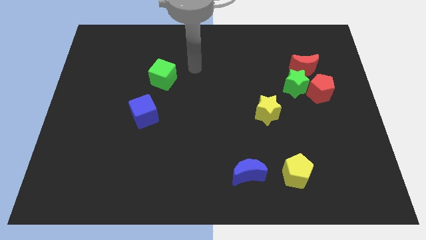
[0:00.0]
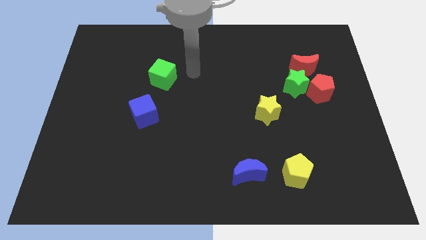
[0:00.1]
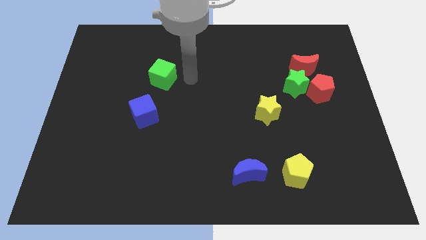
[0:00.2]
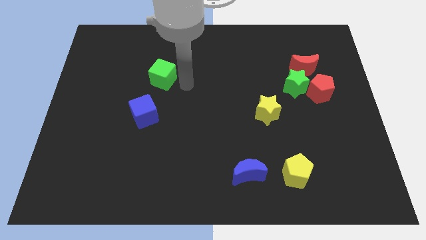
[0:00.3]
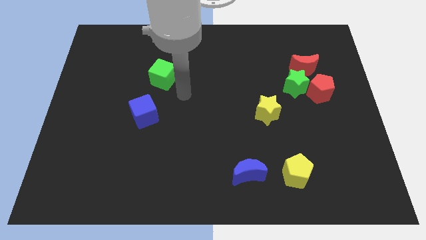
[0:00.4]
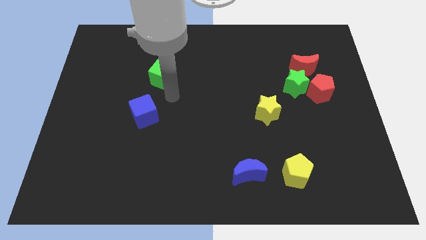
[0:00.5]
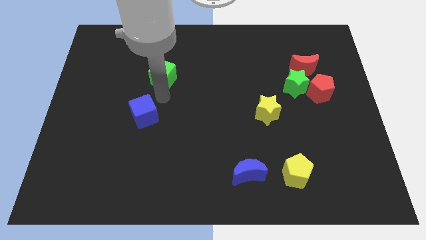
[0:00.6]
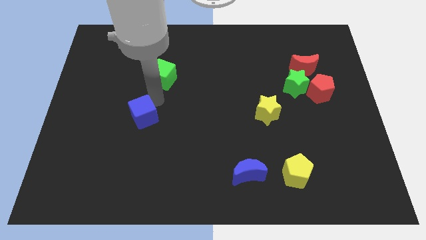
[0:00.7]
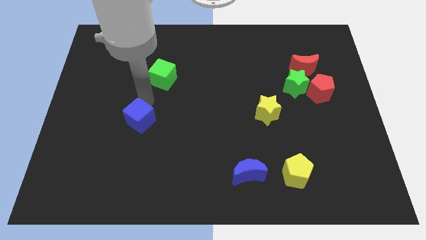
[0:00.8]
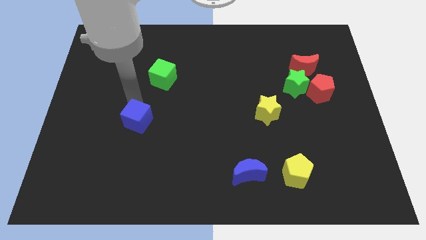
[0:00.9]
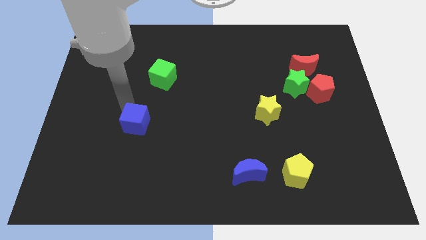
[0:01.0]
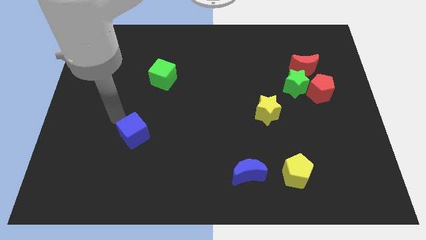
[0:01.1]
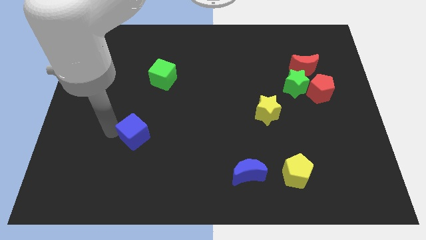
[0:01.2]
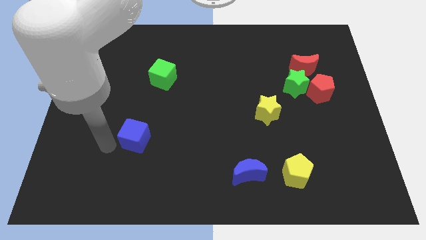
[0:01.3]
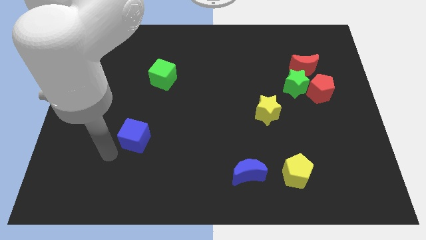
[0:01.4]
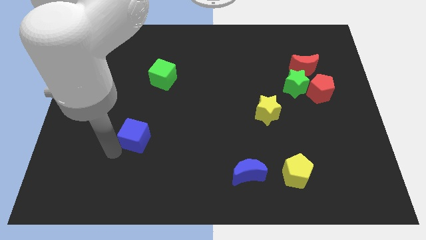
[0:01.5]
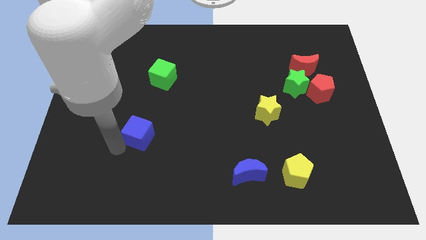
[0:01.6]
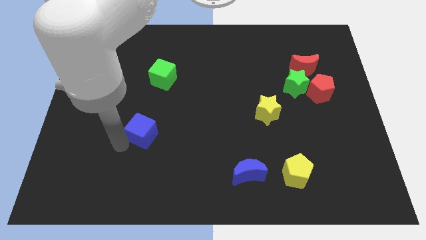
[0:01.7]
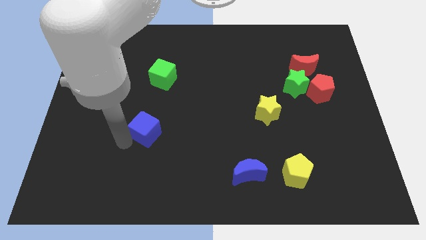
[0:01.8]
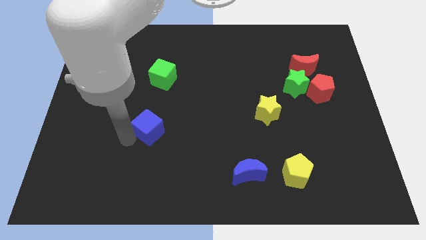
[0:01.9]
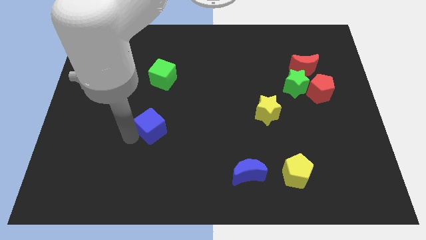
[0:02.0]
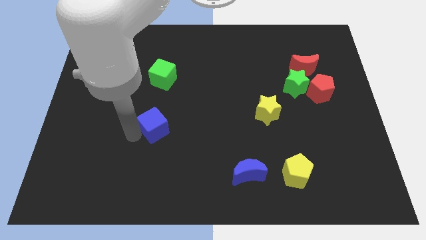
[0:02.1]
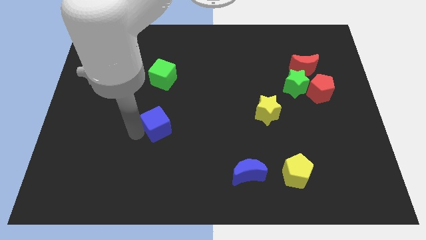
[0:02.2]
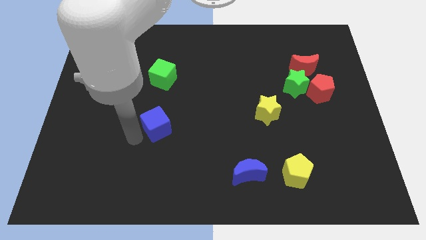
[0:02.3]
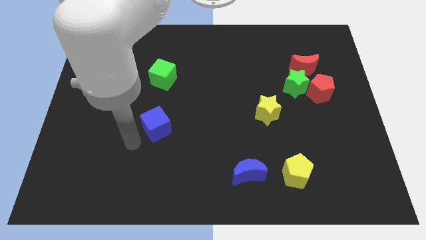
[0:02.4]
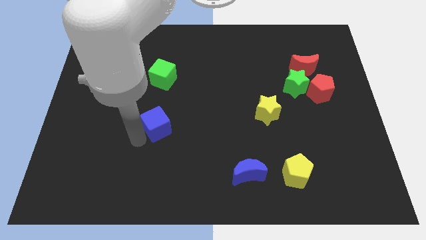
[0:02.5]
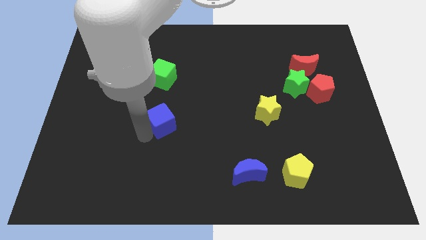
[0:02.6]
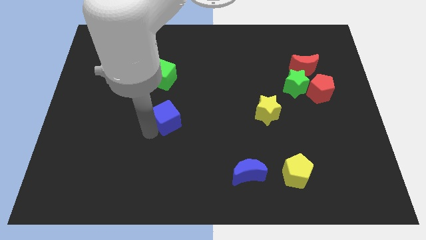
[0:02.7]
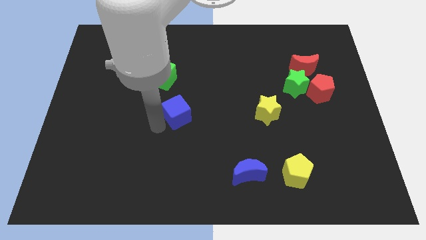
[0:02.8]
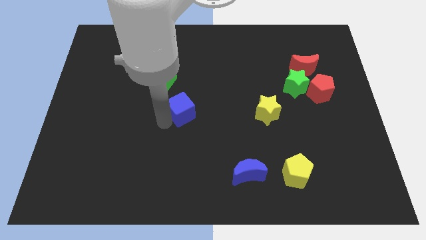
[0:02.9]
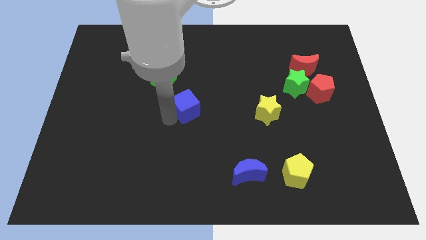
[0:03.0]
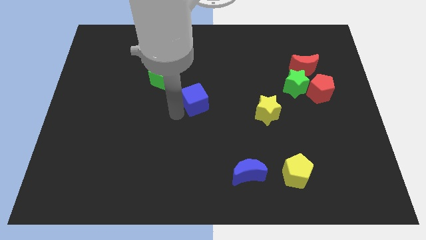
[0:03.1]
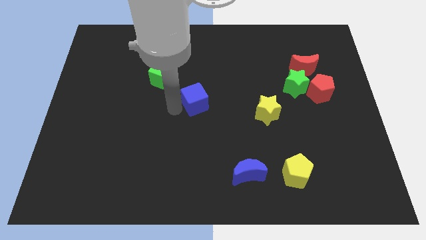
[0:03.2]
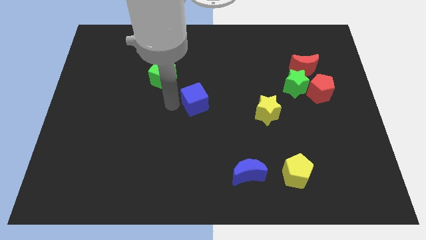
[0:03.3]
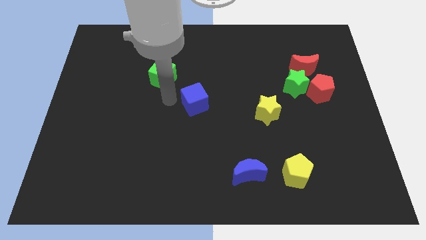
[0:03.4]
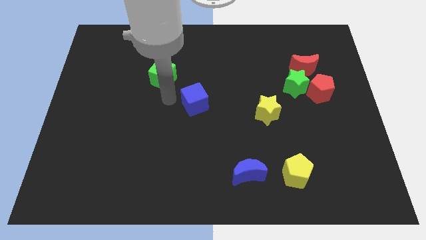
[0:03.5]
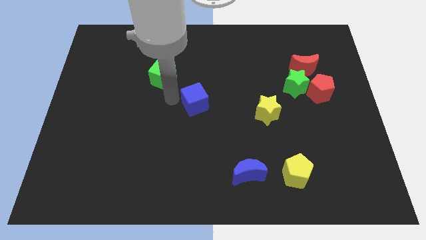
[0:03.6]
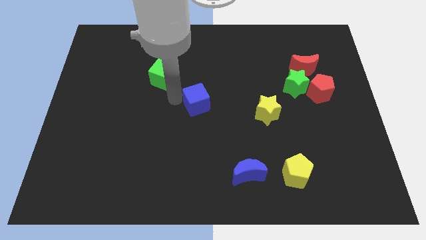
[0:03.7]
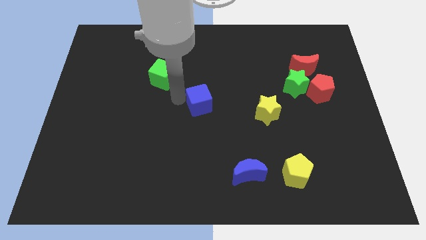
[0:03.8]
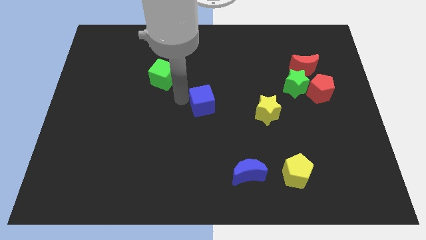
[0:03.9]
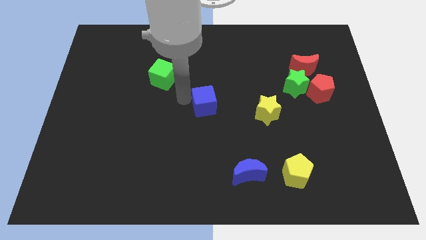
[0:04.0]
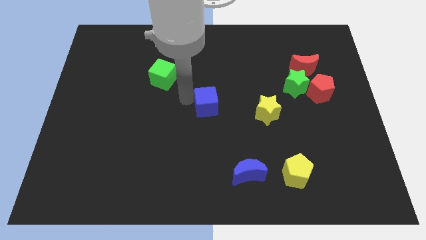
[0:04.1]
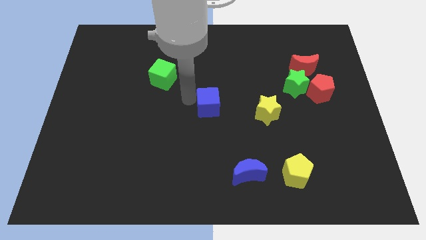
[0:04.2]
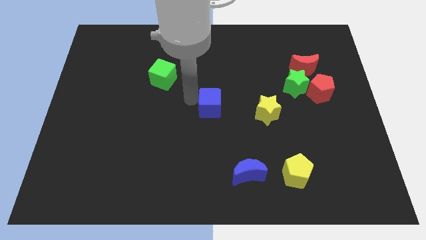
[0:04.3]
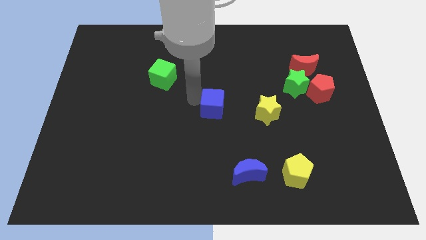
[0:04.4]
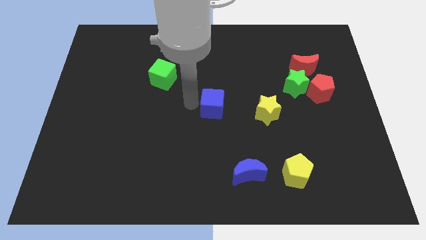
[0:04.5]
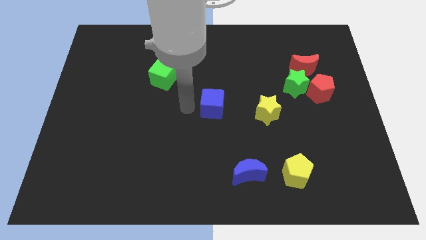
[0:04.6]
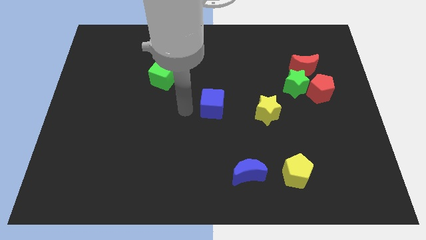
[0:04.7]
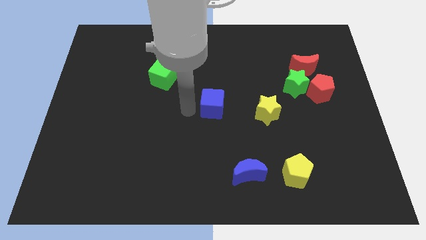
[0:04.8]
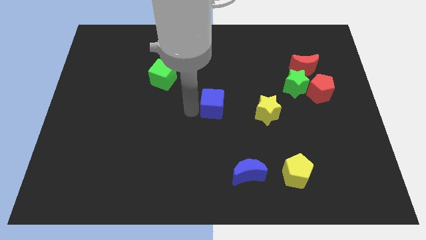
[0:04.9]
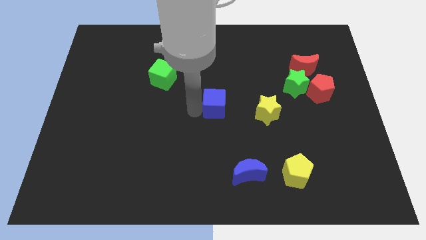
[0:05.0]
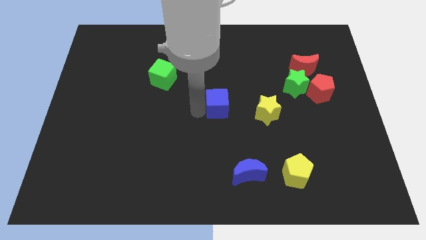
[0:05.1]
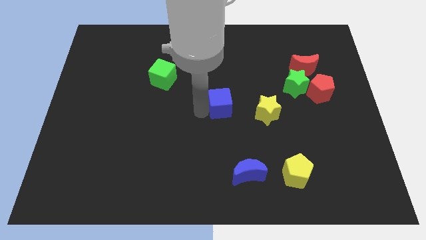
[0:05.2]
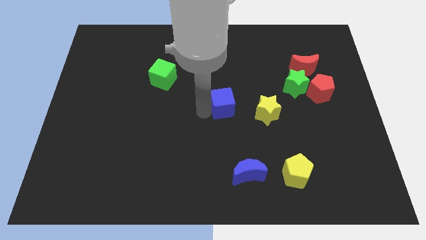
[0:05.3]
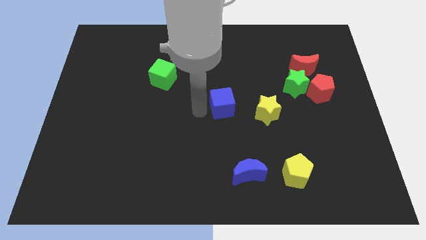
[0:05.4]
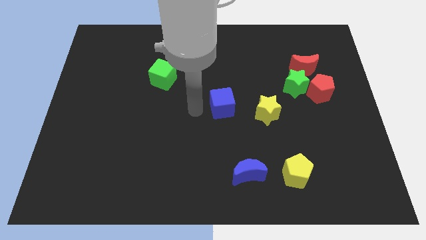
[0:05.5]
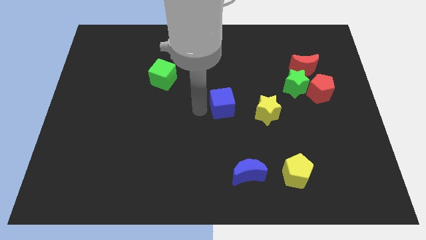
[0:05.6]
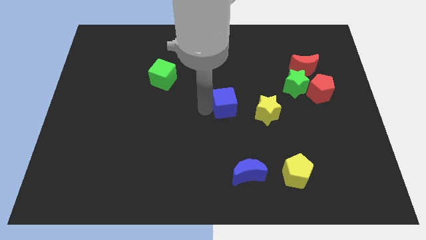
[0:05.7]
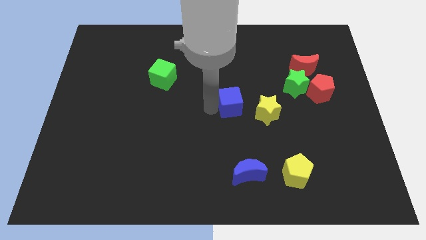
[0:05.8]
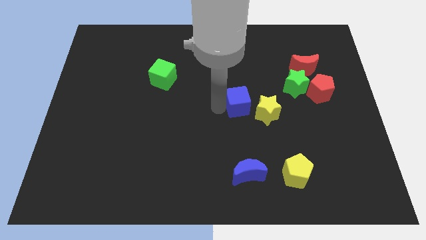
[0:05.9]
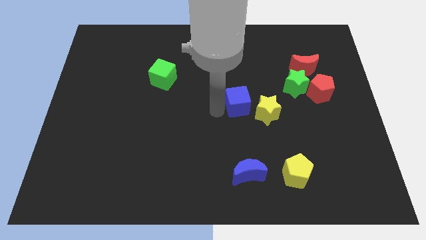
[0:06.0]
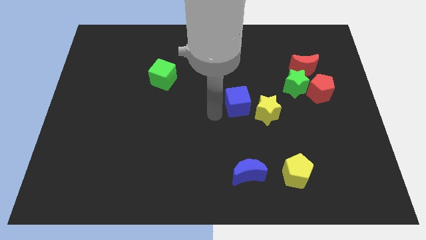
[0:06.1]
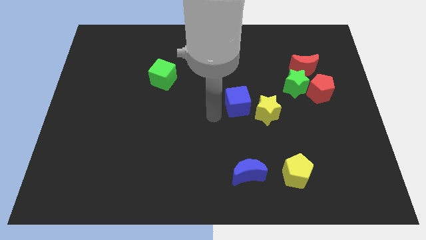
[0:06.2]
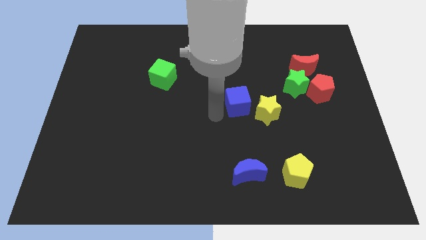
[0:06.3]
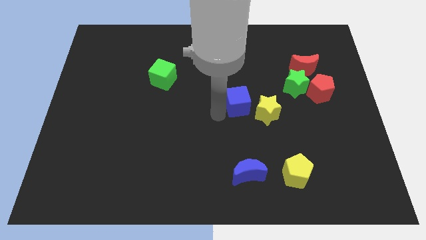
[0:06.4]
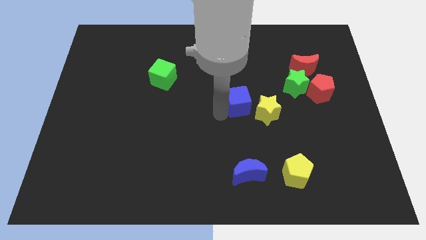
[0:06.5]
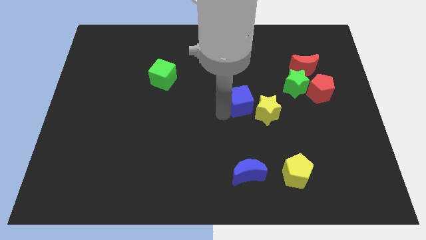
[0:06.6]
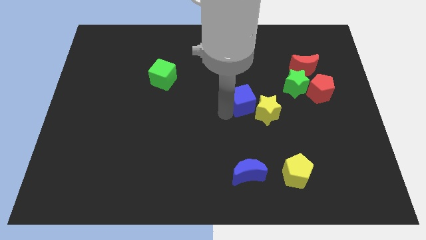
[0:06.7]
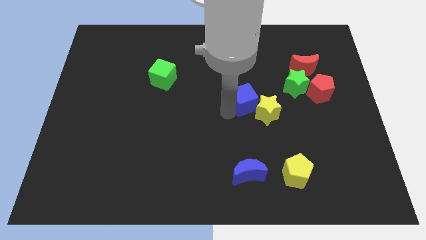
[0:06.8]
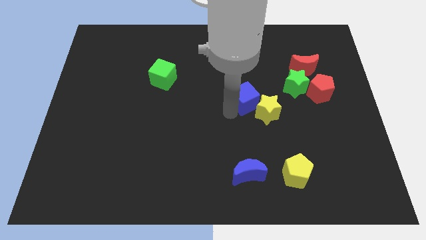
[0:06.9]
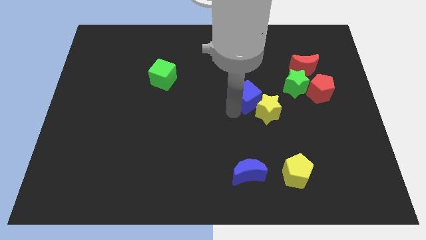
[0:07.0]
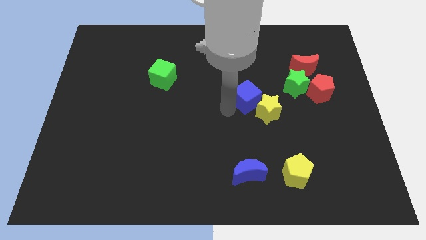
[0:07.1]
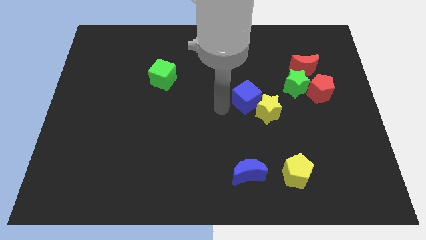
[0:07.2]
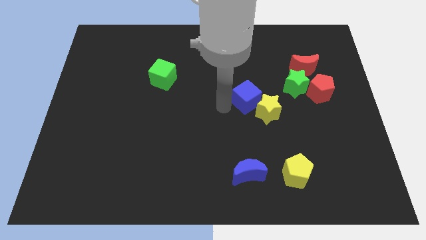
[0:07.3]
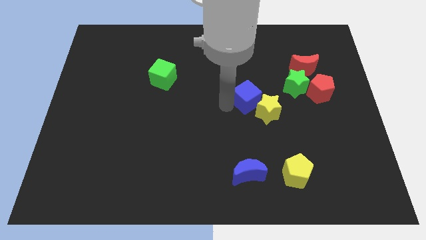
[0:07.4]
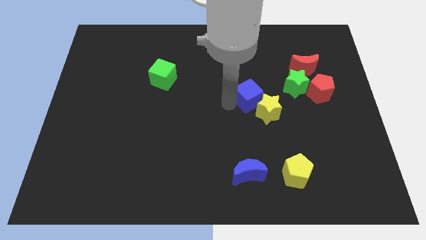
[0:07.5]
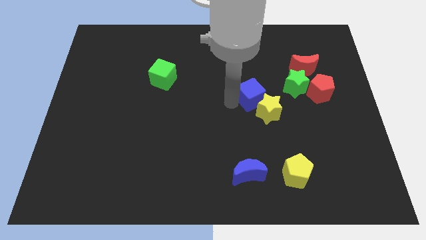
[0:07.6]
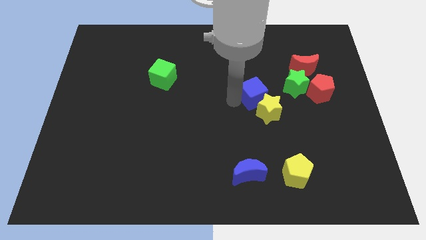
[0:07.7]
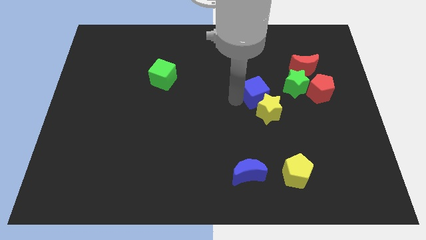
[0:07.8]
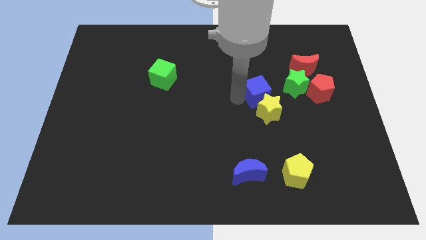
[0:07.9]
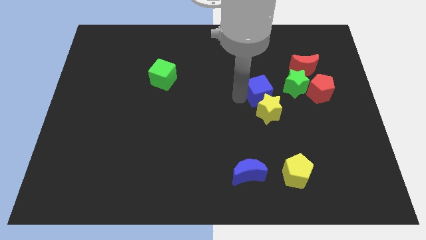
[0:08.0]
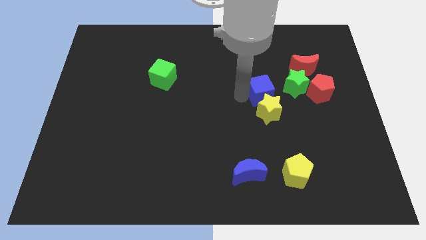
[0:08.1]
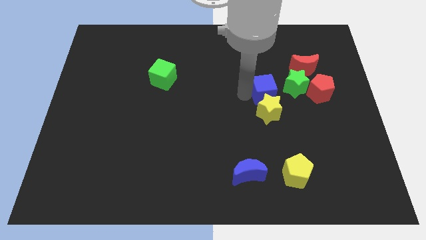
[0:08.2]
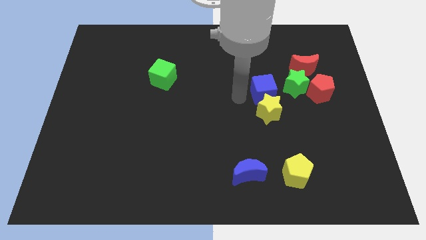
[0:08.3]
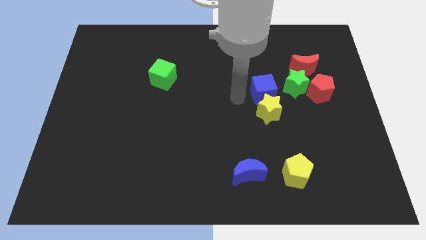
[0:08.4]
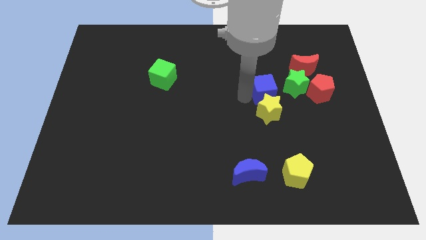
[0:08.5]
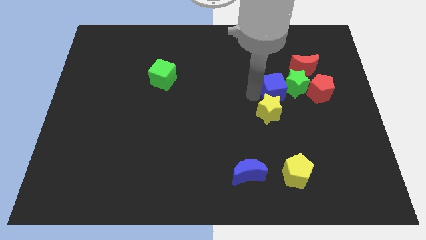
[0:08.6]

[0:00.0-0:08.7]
move the blue cube close to the green star
